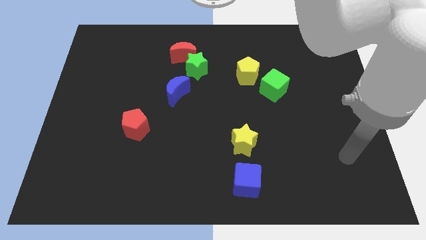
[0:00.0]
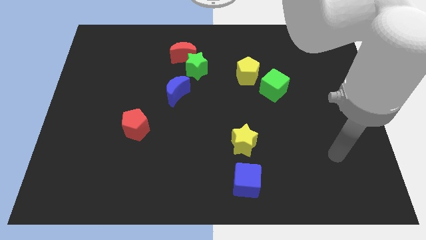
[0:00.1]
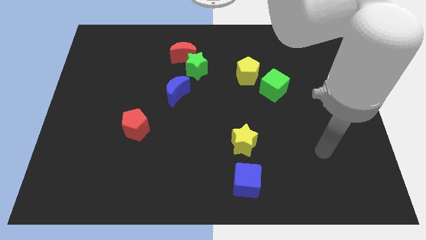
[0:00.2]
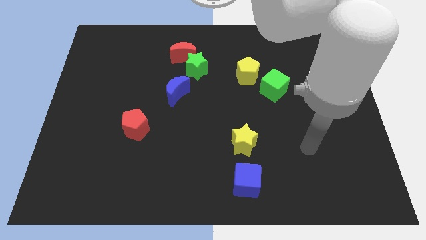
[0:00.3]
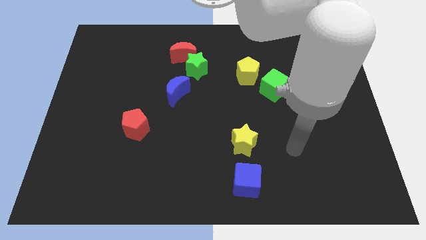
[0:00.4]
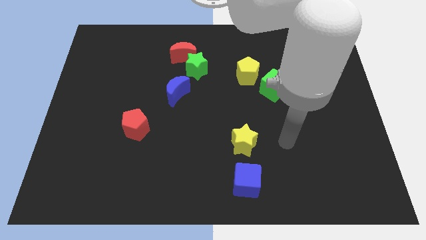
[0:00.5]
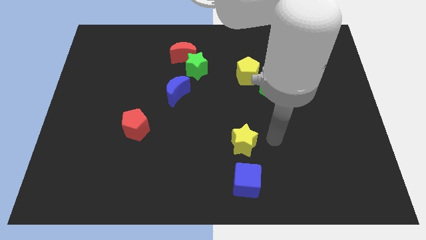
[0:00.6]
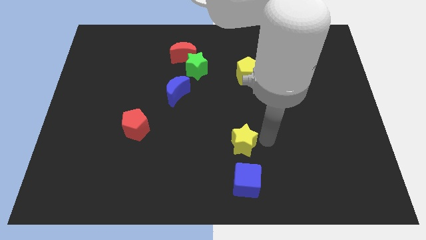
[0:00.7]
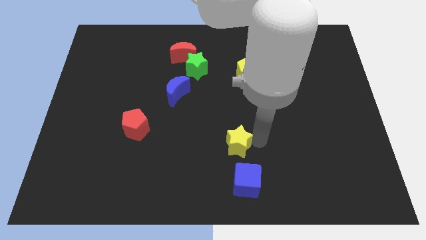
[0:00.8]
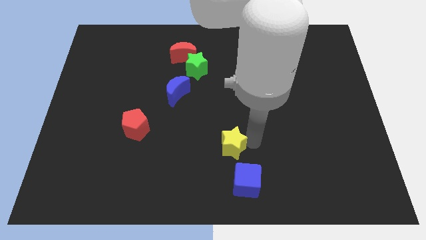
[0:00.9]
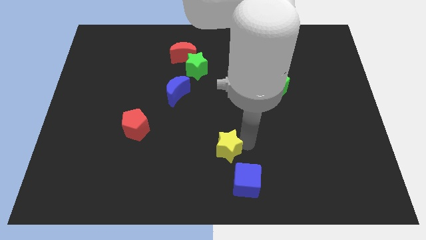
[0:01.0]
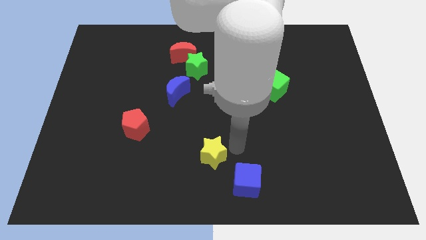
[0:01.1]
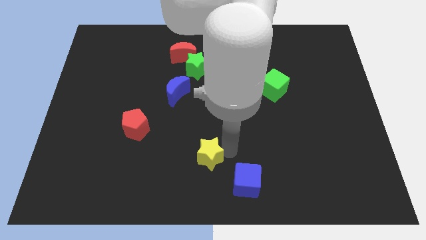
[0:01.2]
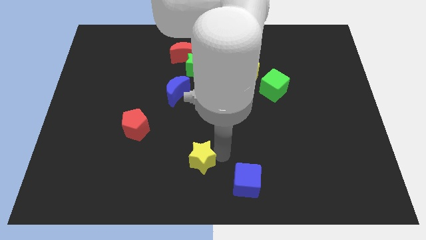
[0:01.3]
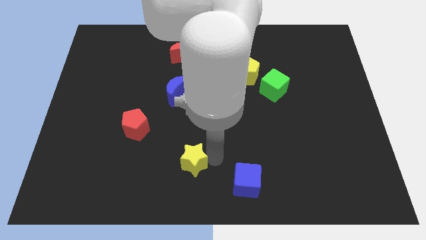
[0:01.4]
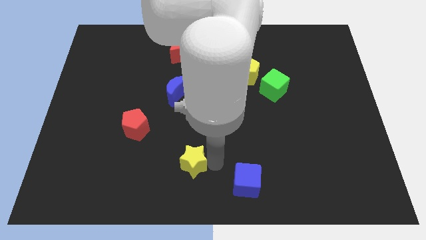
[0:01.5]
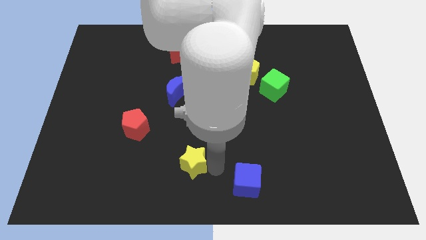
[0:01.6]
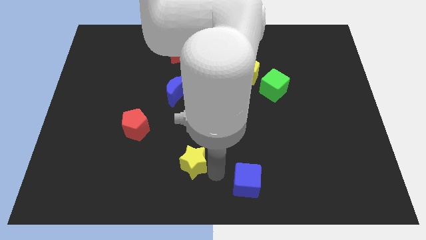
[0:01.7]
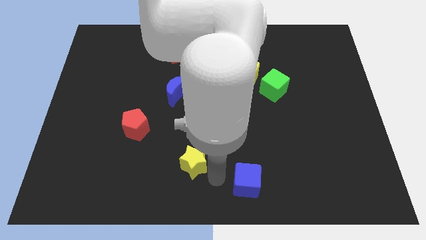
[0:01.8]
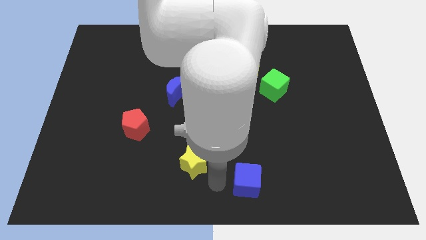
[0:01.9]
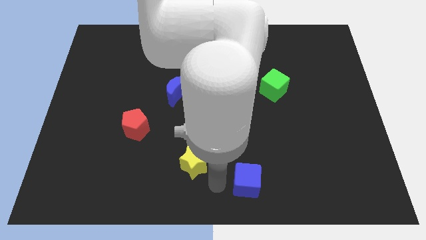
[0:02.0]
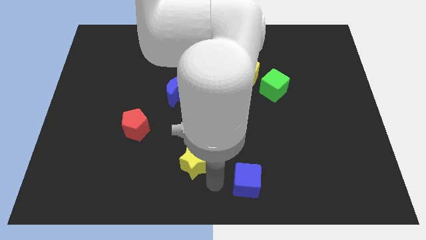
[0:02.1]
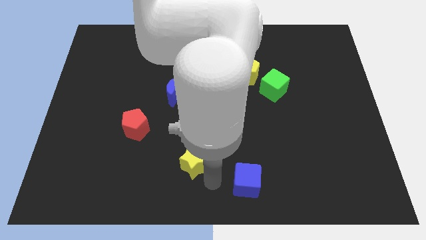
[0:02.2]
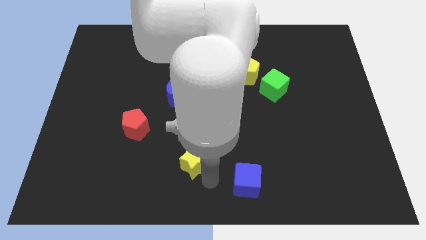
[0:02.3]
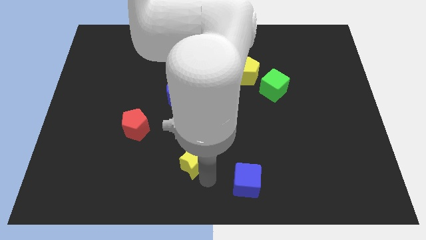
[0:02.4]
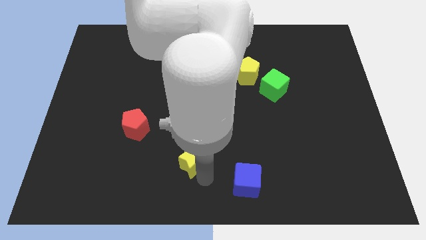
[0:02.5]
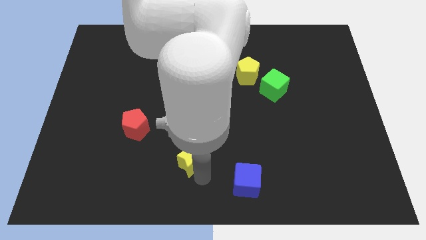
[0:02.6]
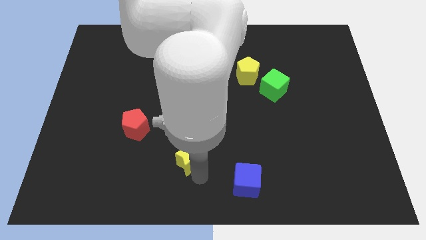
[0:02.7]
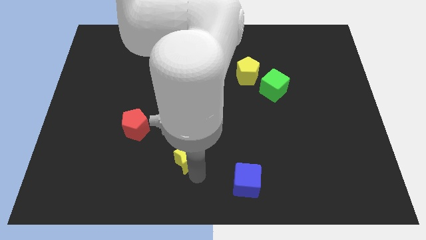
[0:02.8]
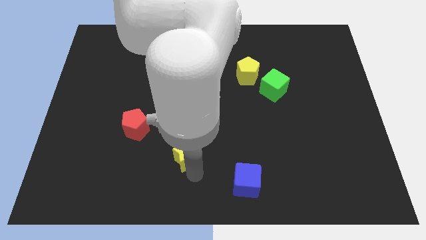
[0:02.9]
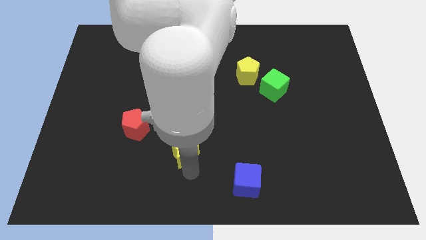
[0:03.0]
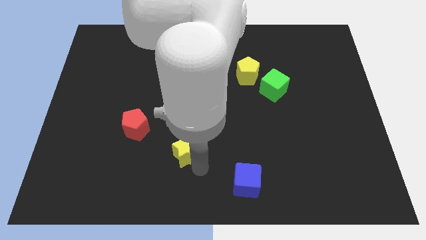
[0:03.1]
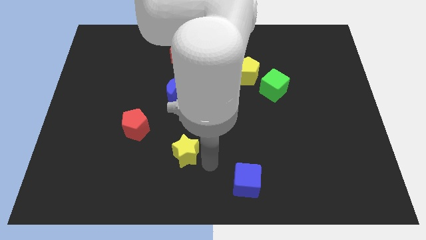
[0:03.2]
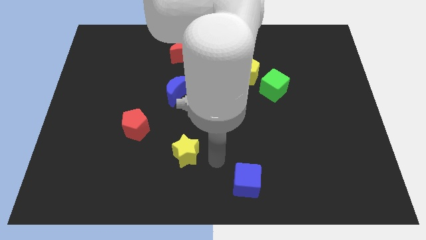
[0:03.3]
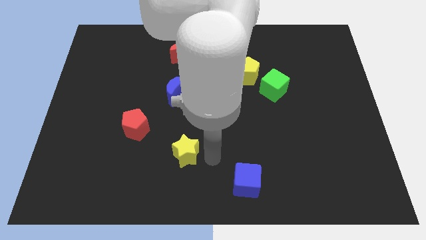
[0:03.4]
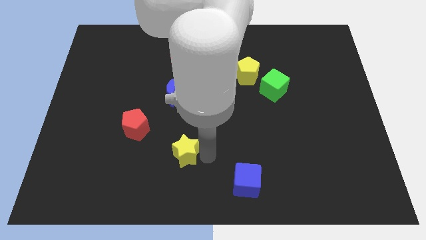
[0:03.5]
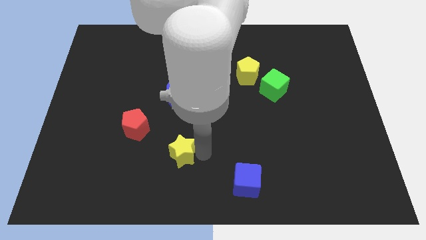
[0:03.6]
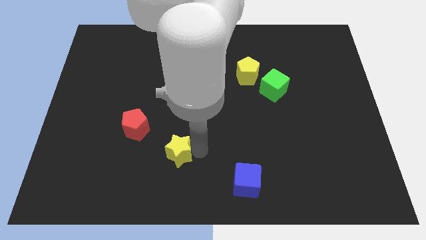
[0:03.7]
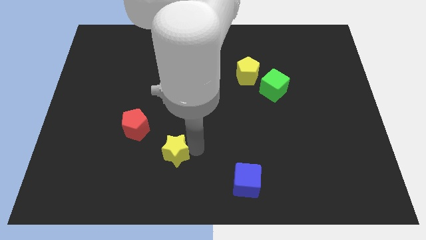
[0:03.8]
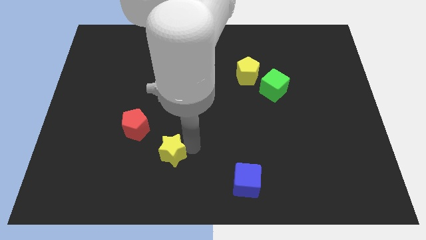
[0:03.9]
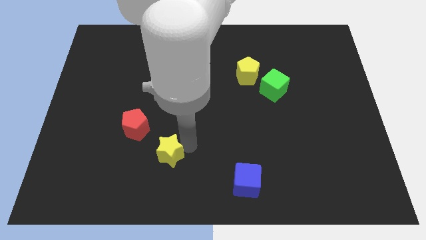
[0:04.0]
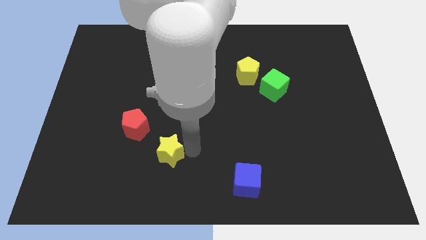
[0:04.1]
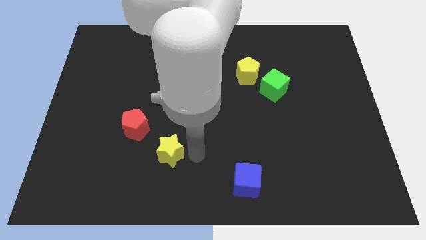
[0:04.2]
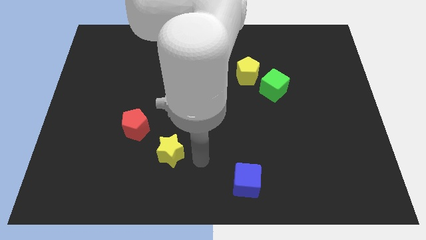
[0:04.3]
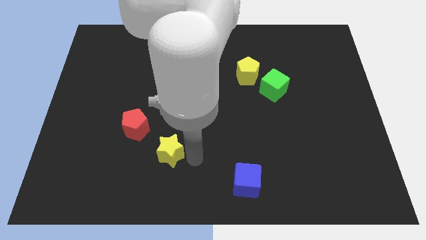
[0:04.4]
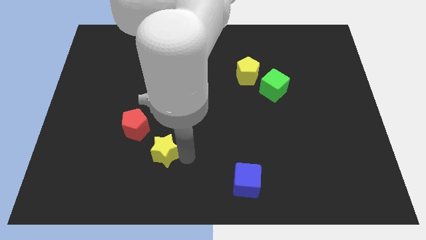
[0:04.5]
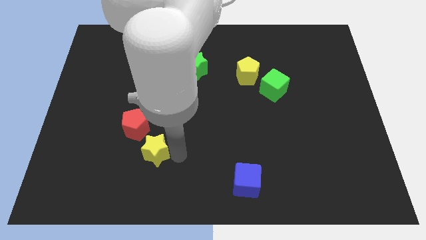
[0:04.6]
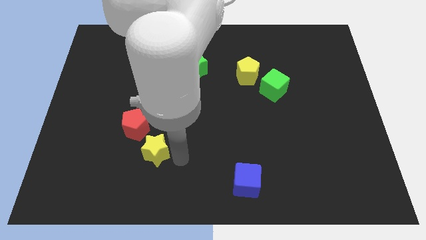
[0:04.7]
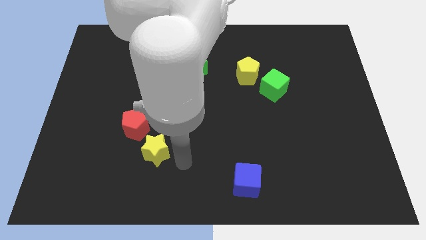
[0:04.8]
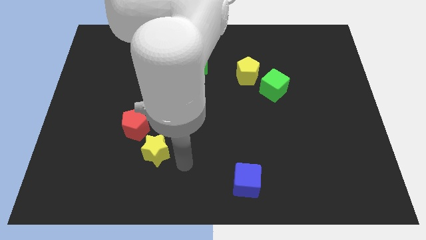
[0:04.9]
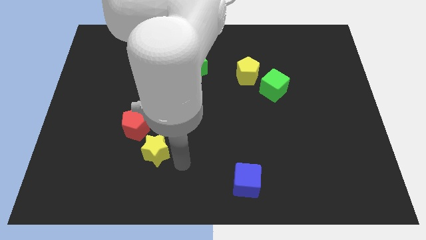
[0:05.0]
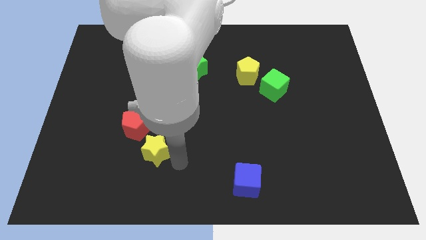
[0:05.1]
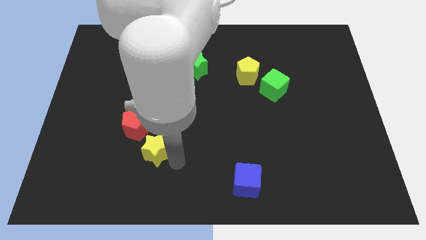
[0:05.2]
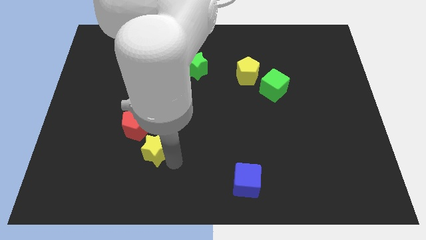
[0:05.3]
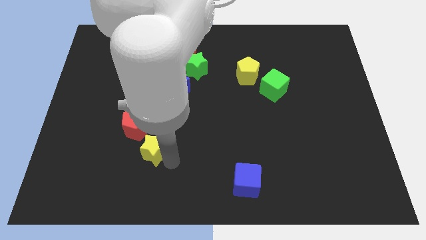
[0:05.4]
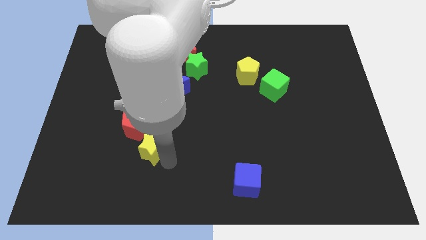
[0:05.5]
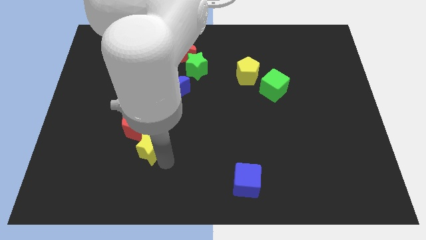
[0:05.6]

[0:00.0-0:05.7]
slide the yellow star to the left

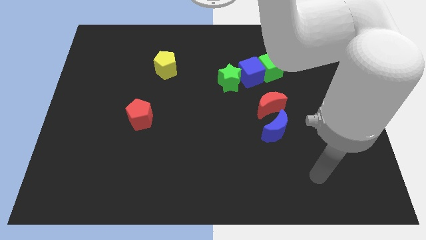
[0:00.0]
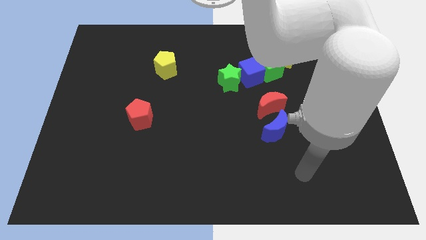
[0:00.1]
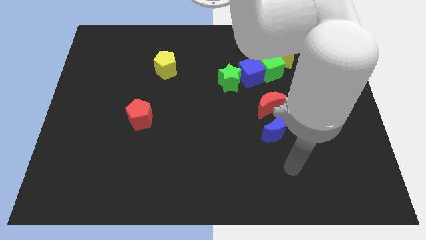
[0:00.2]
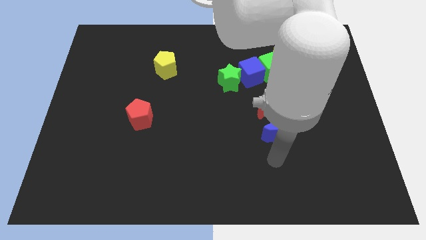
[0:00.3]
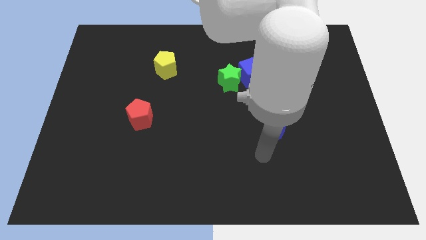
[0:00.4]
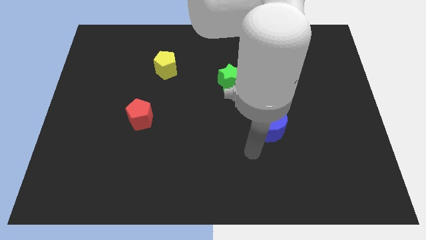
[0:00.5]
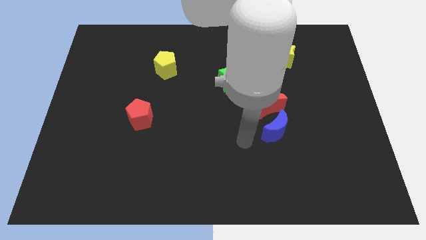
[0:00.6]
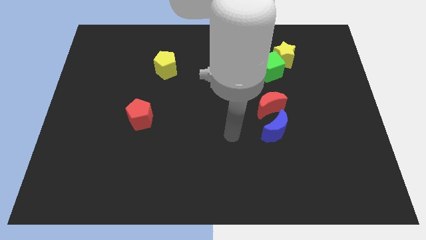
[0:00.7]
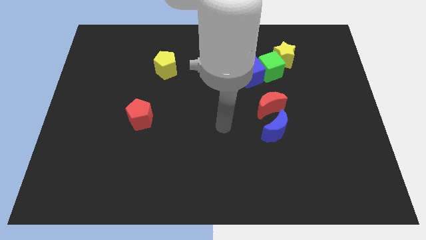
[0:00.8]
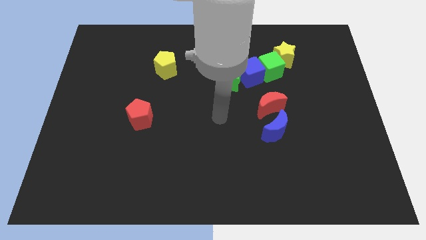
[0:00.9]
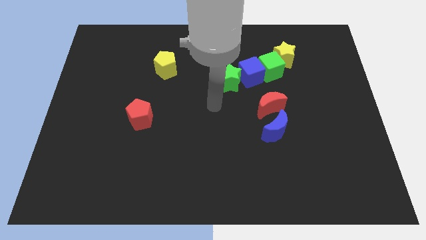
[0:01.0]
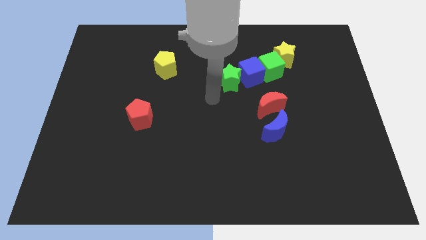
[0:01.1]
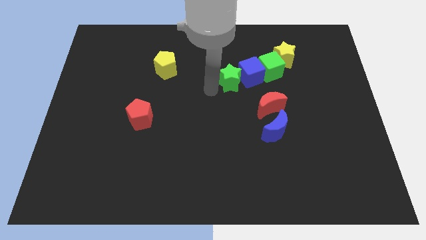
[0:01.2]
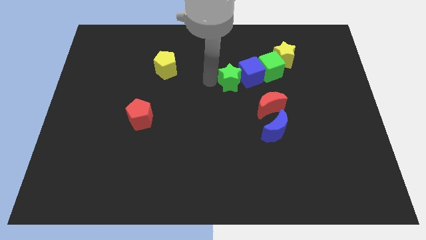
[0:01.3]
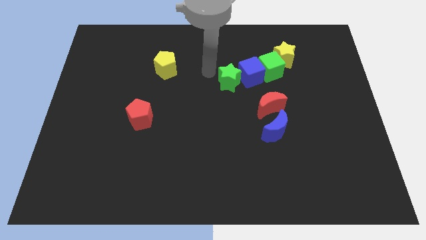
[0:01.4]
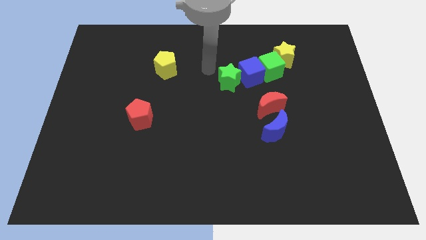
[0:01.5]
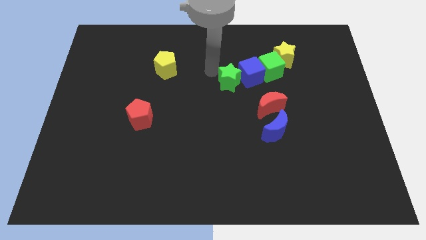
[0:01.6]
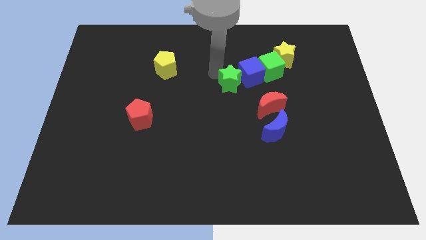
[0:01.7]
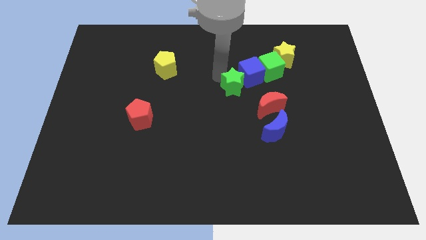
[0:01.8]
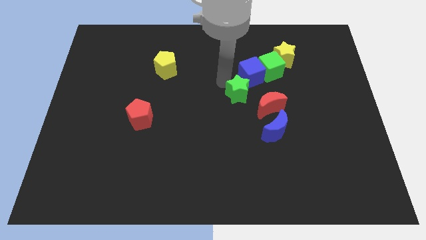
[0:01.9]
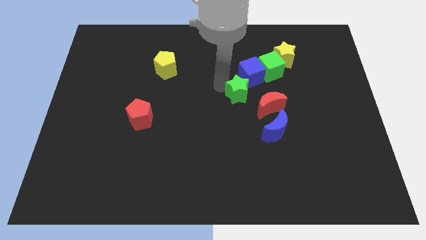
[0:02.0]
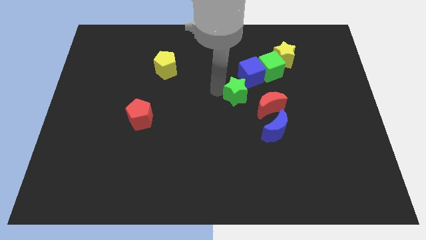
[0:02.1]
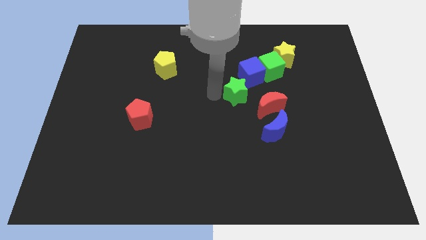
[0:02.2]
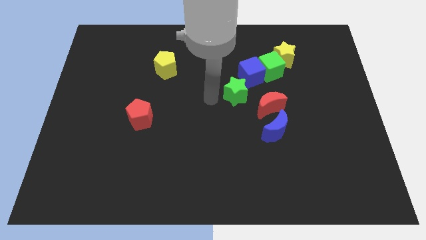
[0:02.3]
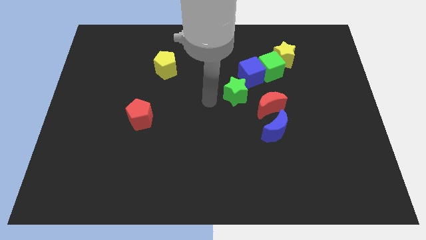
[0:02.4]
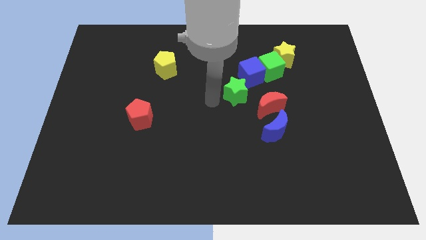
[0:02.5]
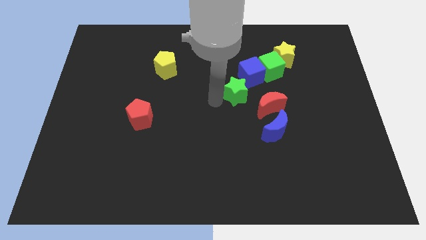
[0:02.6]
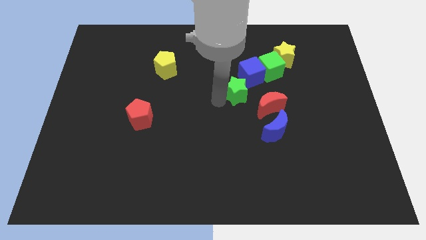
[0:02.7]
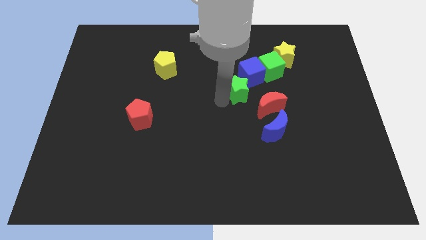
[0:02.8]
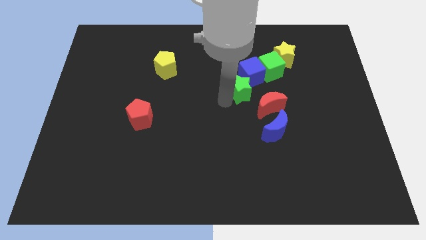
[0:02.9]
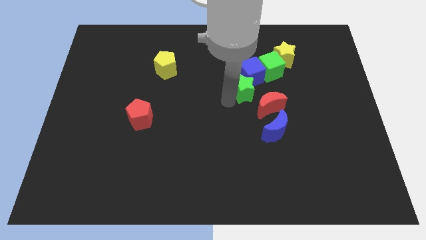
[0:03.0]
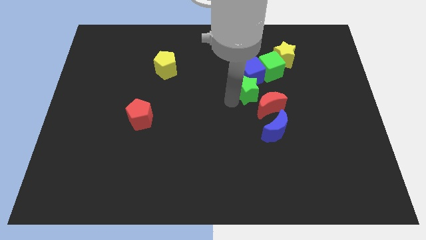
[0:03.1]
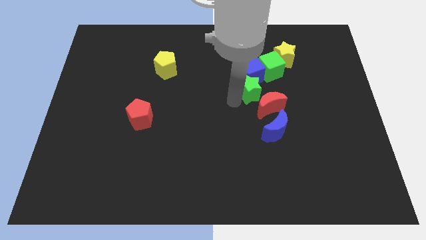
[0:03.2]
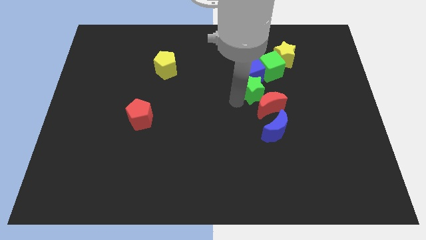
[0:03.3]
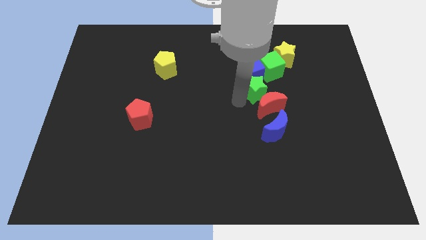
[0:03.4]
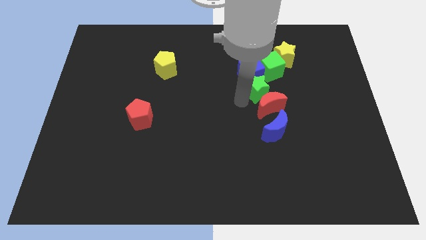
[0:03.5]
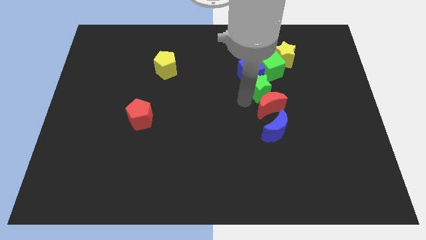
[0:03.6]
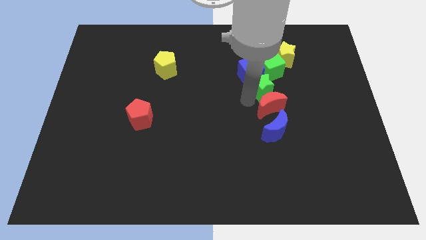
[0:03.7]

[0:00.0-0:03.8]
push the green star to the right somewhat
